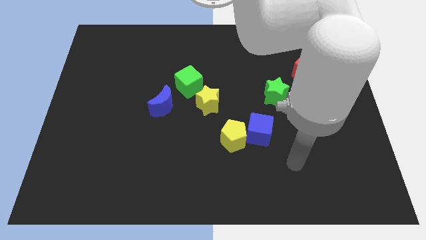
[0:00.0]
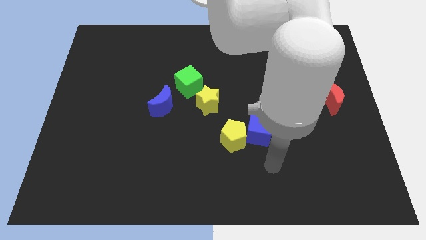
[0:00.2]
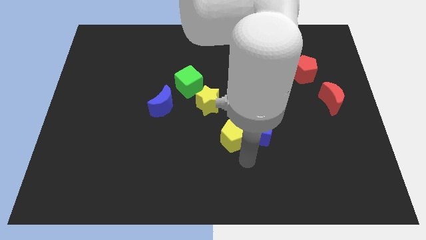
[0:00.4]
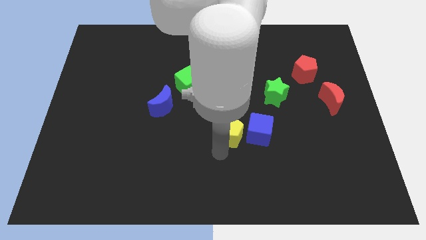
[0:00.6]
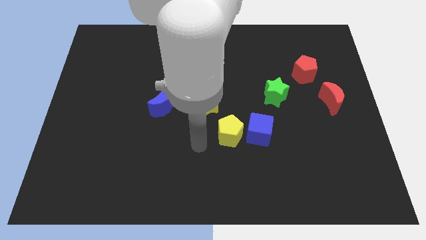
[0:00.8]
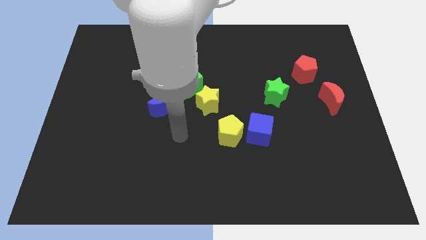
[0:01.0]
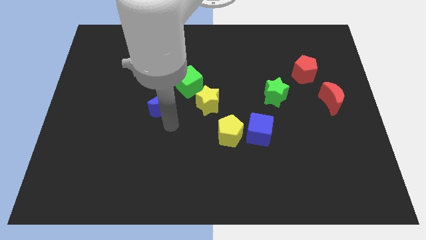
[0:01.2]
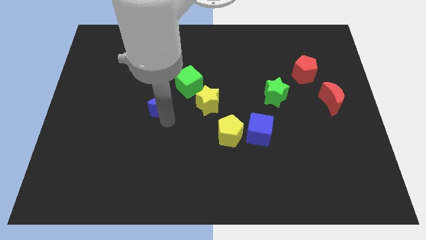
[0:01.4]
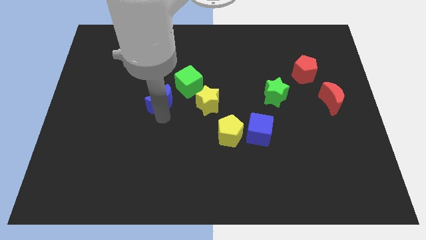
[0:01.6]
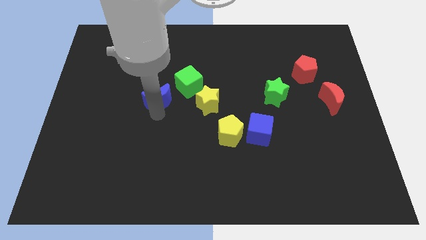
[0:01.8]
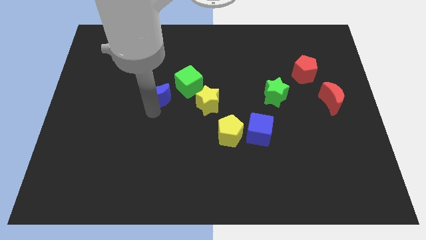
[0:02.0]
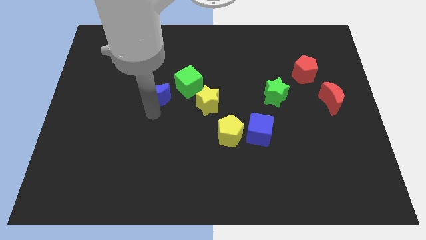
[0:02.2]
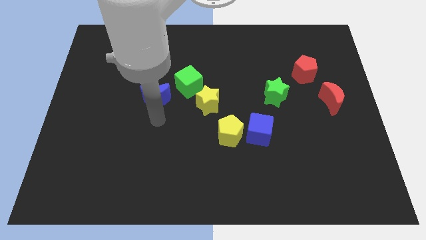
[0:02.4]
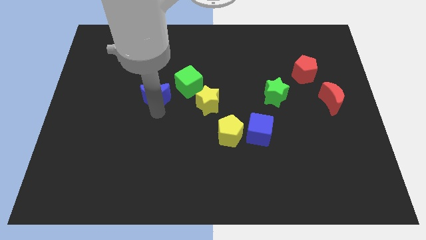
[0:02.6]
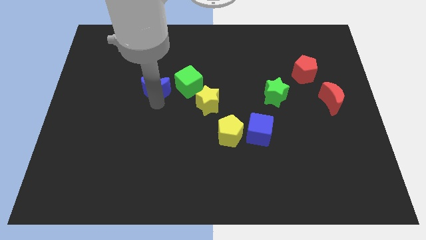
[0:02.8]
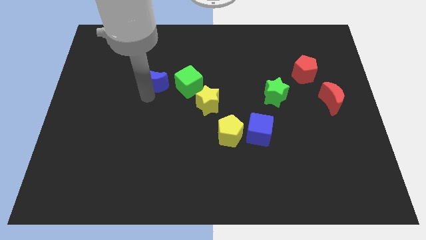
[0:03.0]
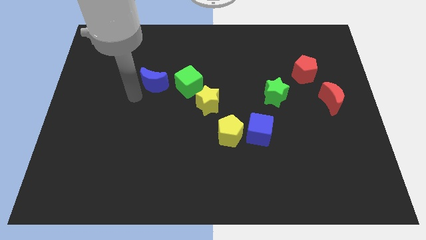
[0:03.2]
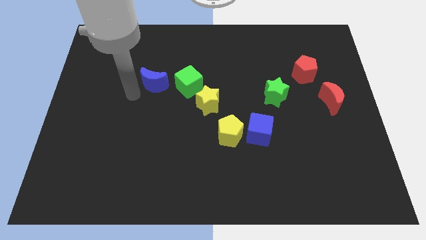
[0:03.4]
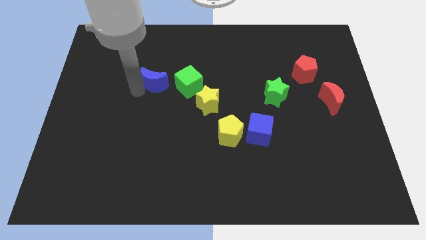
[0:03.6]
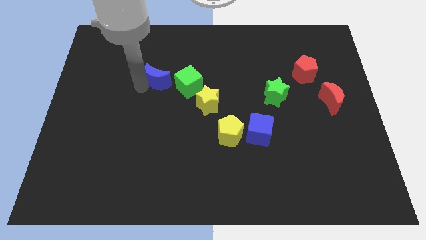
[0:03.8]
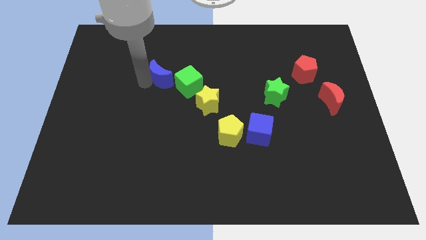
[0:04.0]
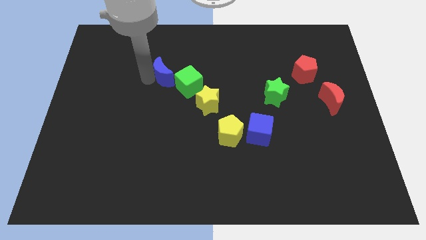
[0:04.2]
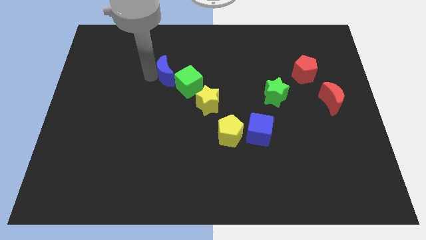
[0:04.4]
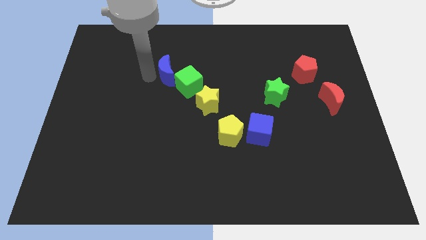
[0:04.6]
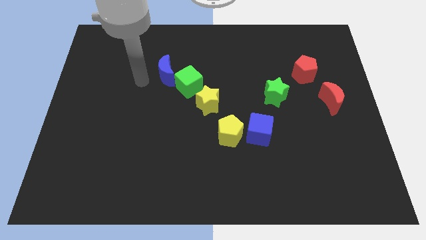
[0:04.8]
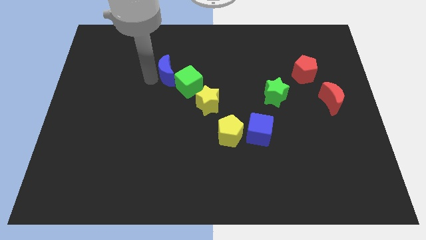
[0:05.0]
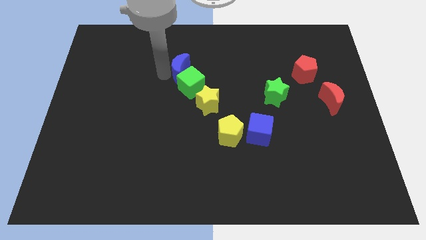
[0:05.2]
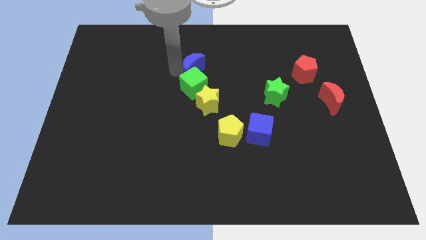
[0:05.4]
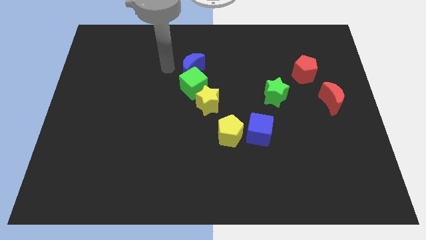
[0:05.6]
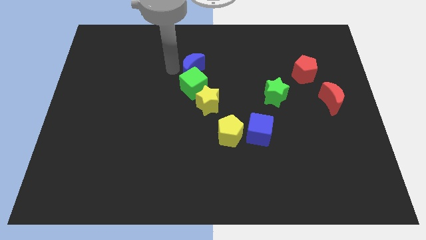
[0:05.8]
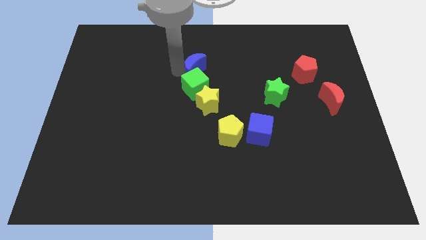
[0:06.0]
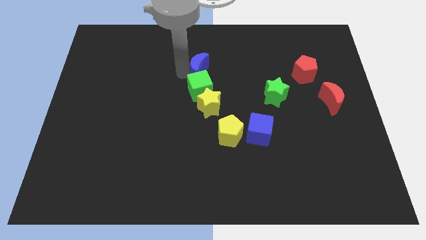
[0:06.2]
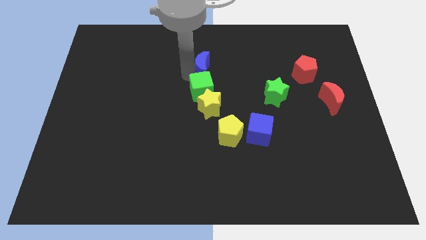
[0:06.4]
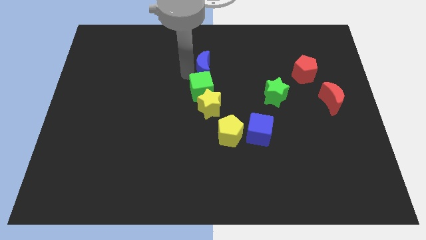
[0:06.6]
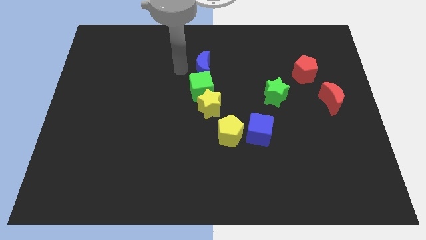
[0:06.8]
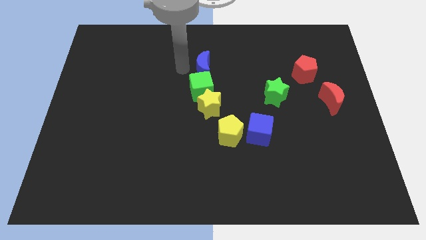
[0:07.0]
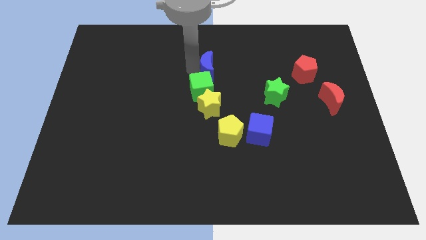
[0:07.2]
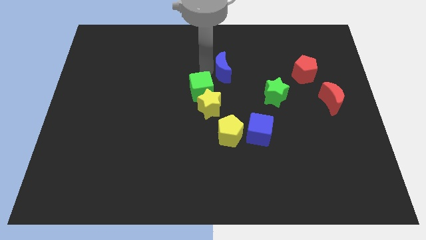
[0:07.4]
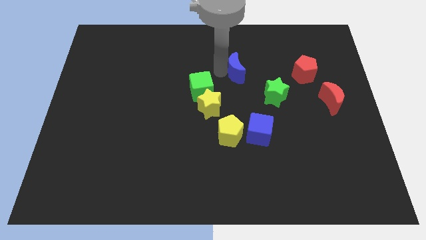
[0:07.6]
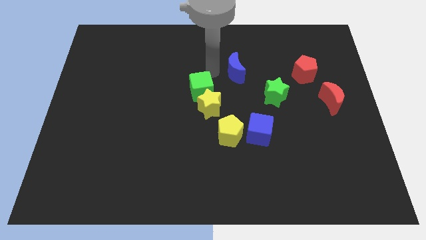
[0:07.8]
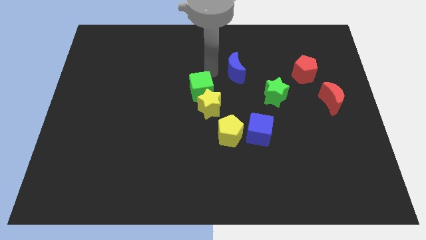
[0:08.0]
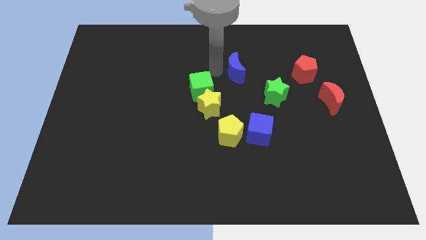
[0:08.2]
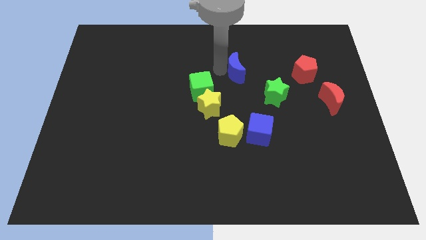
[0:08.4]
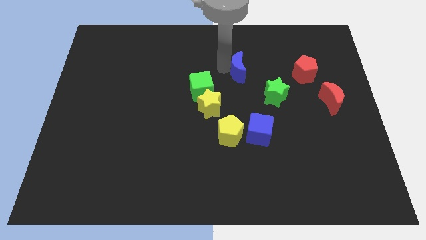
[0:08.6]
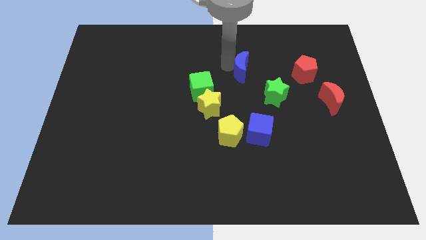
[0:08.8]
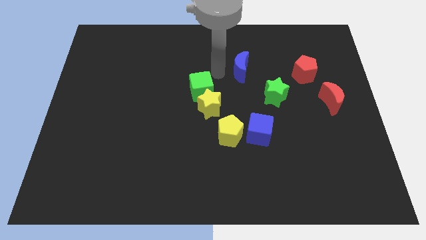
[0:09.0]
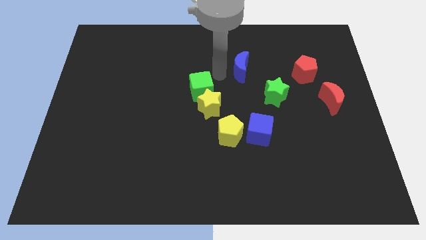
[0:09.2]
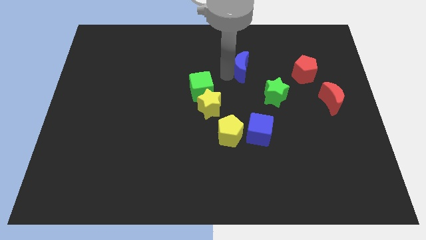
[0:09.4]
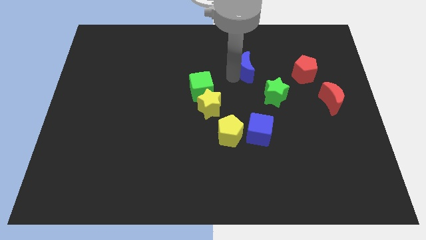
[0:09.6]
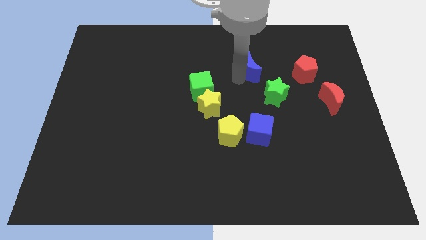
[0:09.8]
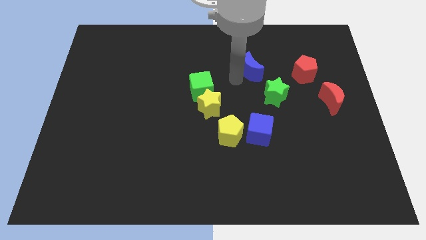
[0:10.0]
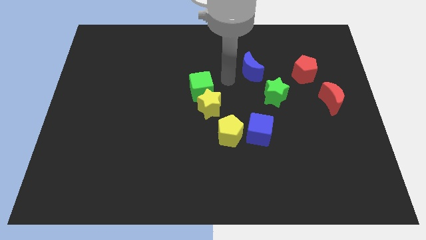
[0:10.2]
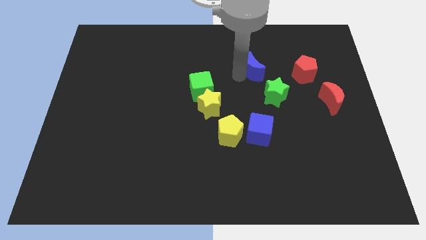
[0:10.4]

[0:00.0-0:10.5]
move the blue moon to the top of the green star

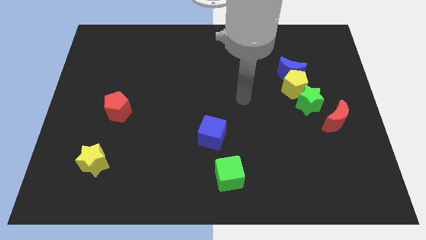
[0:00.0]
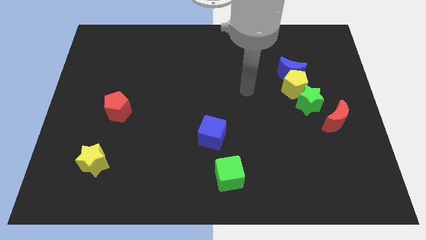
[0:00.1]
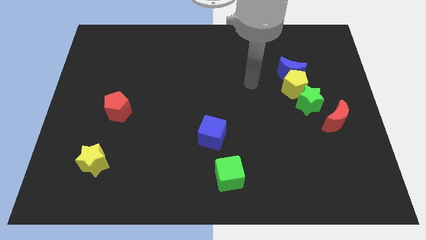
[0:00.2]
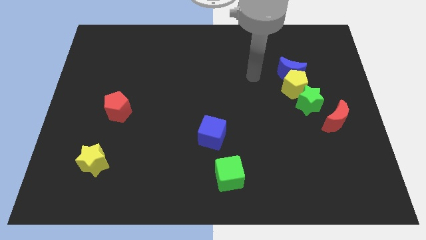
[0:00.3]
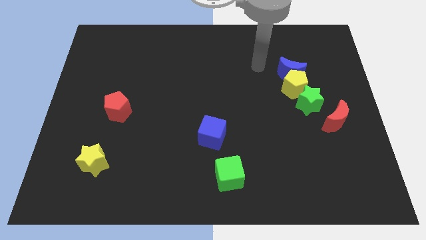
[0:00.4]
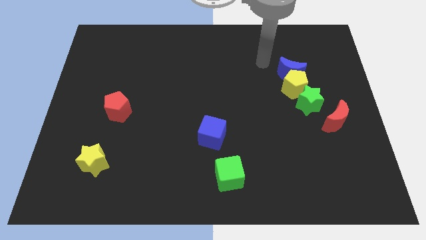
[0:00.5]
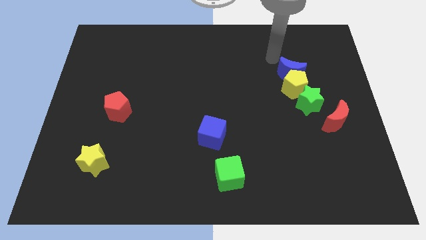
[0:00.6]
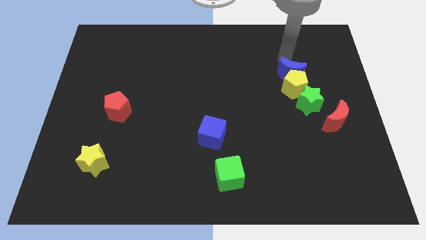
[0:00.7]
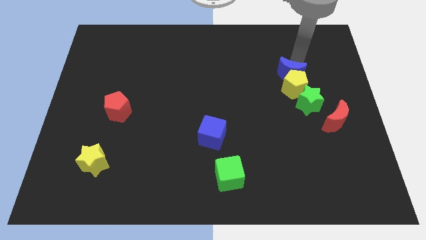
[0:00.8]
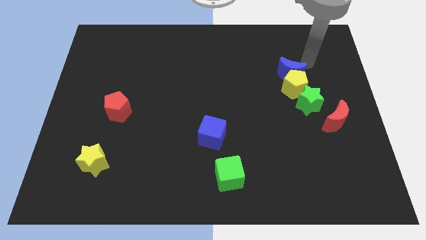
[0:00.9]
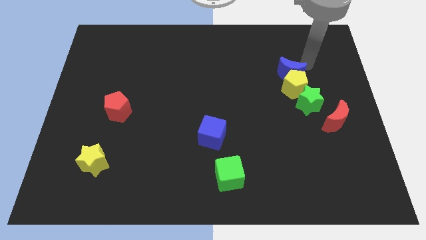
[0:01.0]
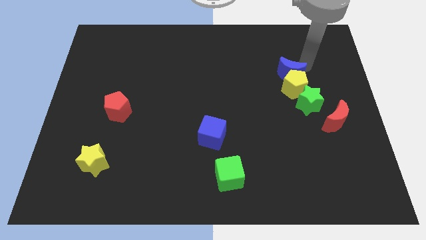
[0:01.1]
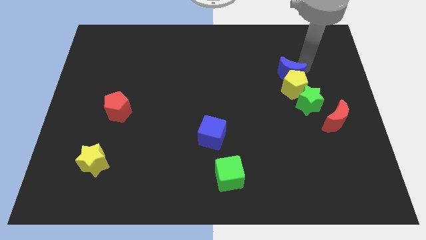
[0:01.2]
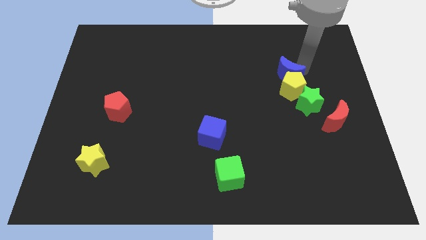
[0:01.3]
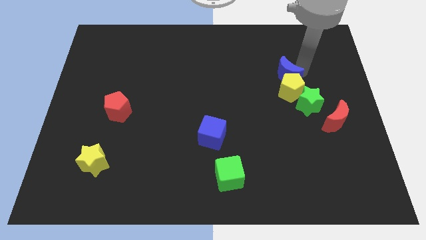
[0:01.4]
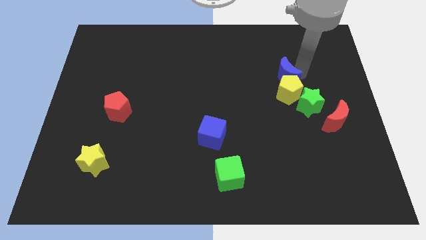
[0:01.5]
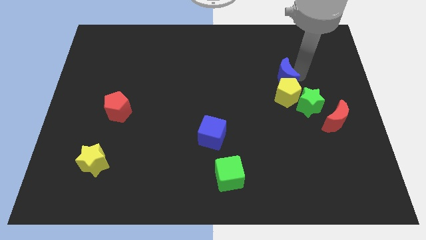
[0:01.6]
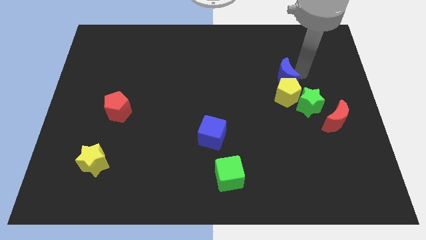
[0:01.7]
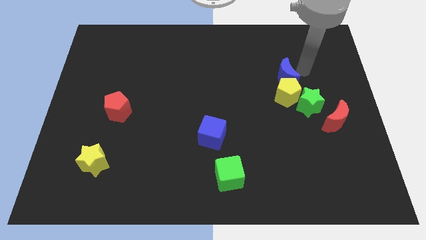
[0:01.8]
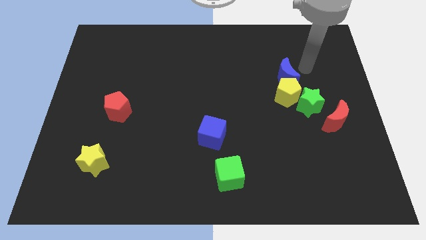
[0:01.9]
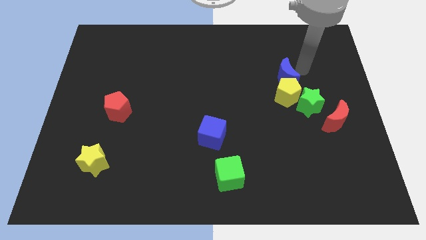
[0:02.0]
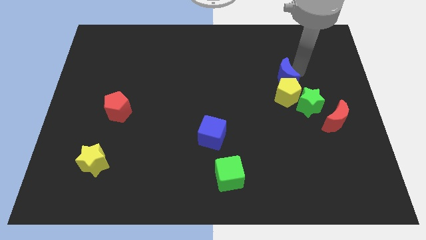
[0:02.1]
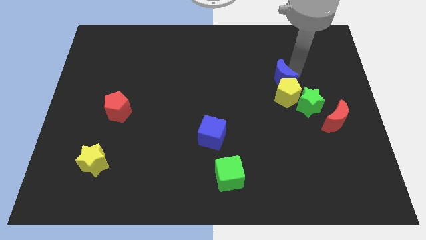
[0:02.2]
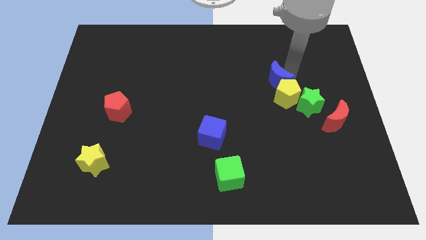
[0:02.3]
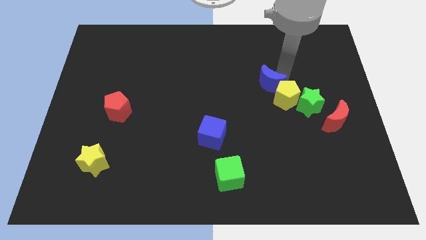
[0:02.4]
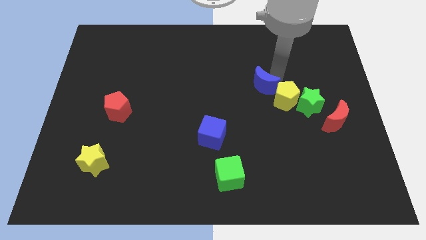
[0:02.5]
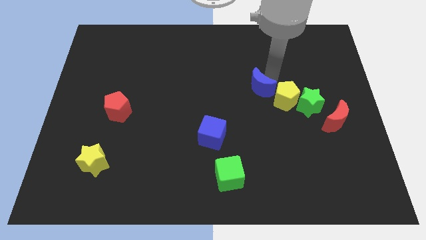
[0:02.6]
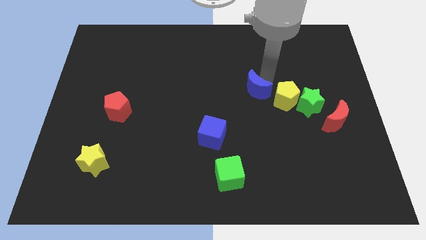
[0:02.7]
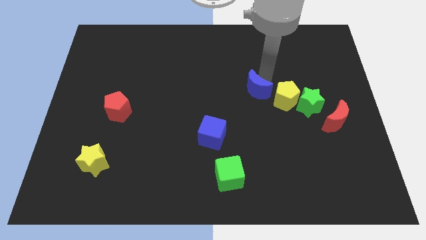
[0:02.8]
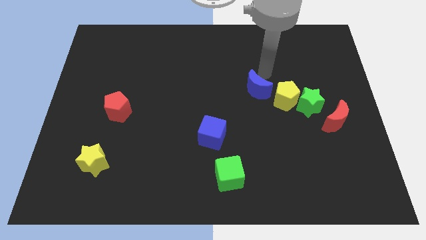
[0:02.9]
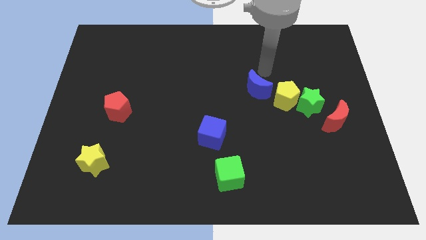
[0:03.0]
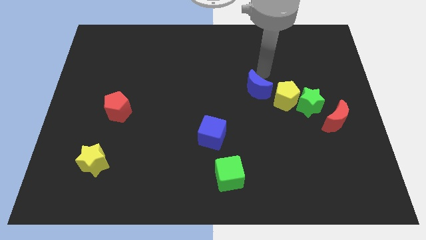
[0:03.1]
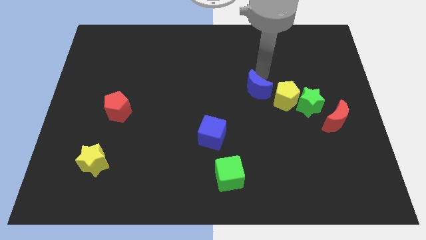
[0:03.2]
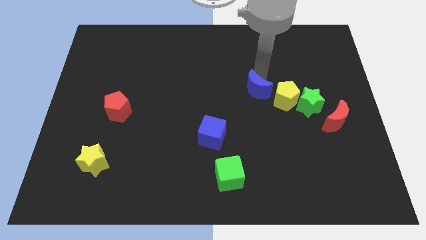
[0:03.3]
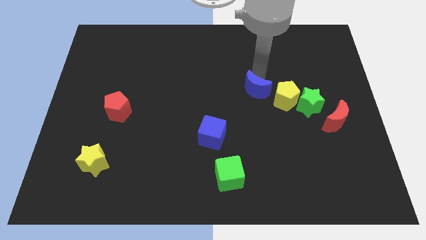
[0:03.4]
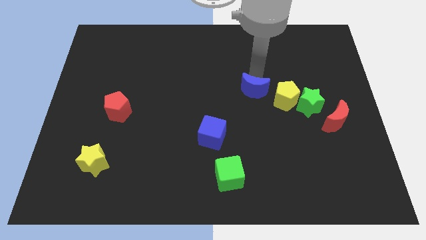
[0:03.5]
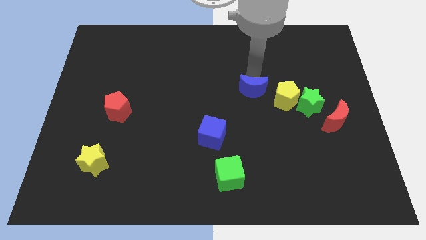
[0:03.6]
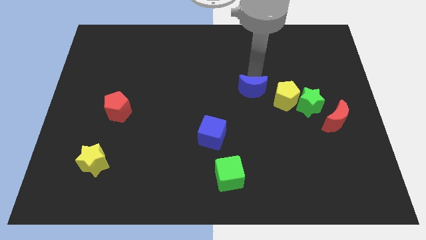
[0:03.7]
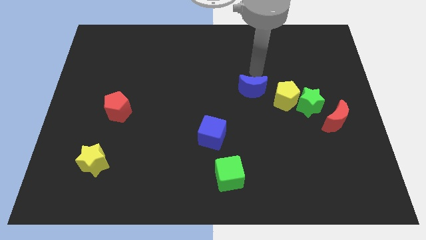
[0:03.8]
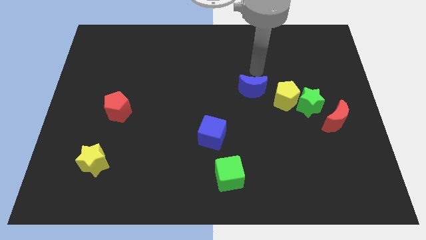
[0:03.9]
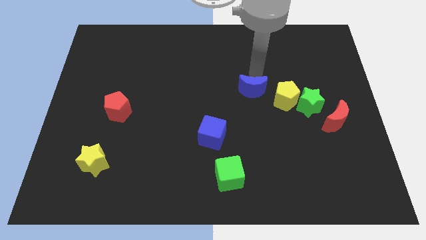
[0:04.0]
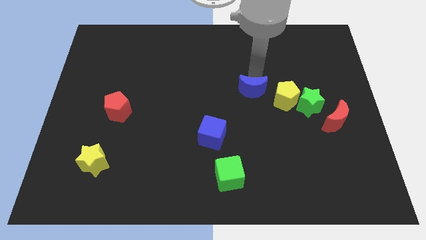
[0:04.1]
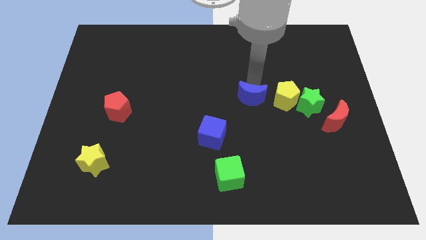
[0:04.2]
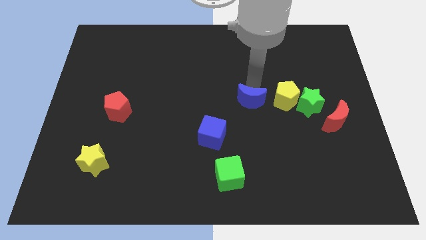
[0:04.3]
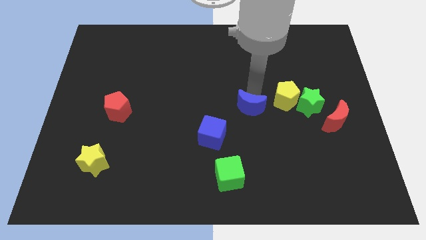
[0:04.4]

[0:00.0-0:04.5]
push the blue moon diagonally up and to the right of the blue cube
